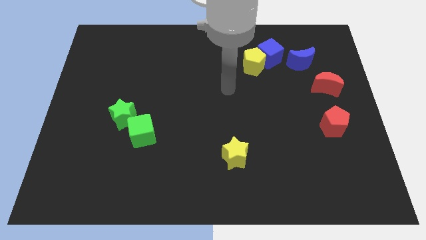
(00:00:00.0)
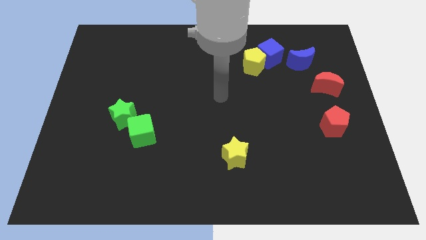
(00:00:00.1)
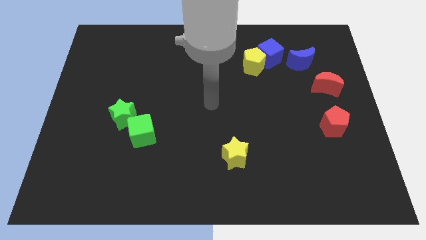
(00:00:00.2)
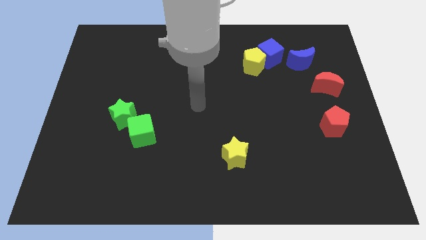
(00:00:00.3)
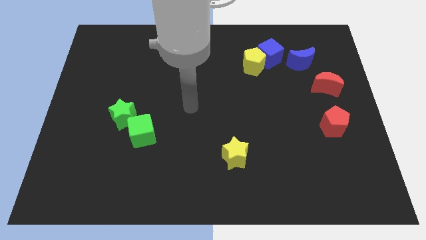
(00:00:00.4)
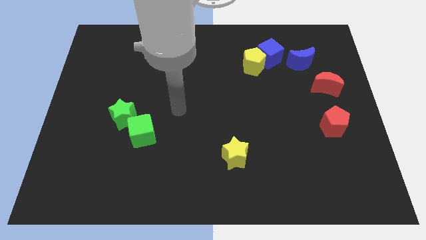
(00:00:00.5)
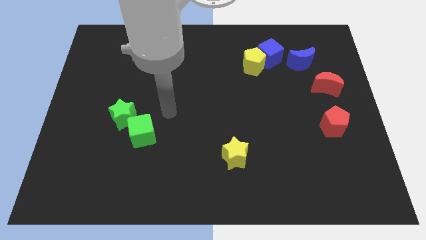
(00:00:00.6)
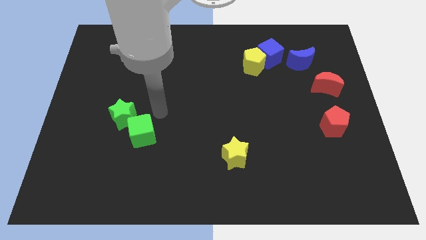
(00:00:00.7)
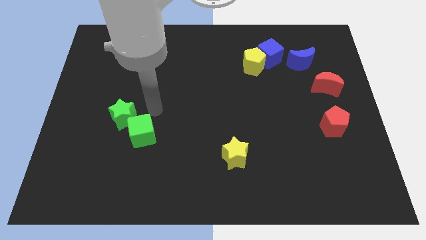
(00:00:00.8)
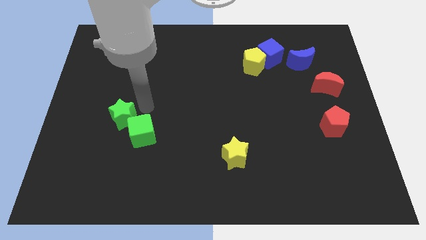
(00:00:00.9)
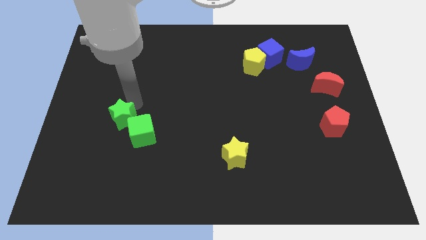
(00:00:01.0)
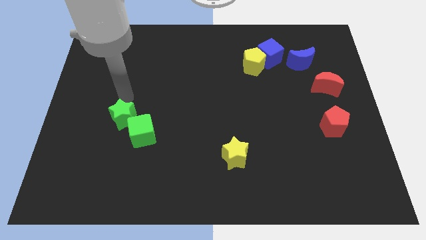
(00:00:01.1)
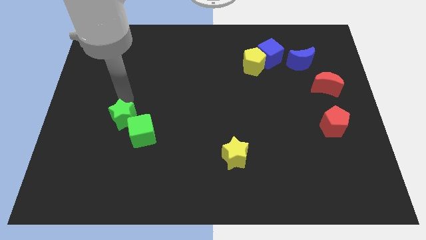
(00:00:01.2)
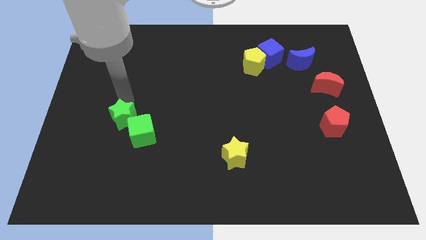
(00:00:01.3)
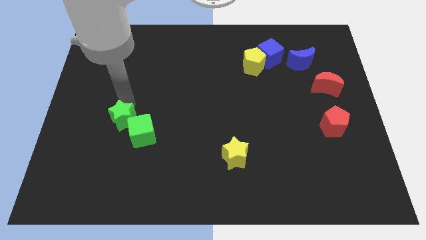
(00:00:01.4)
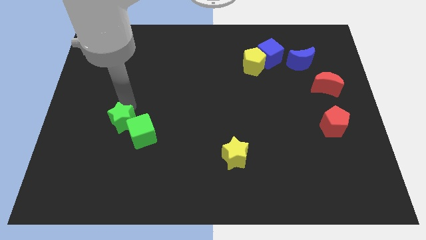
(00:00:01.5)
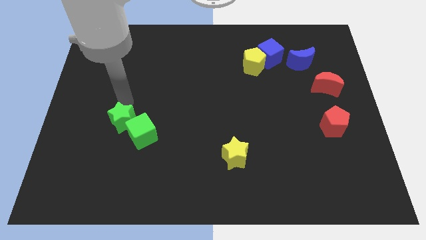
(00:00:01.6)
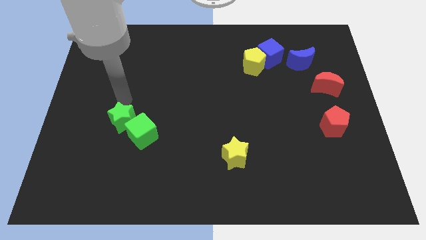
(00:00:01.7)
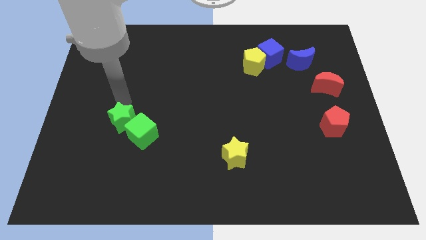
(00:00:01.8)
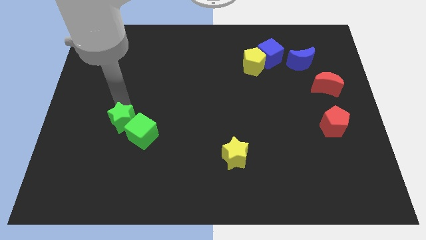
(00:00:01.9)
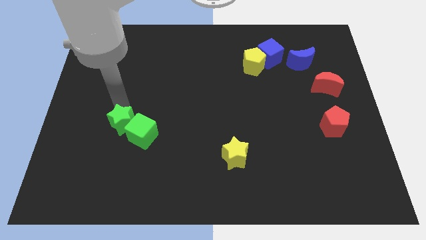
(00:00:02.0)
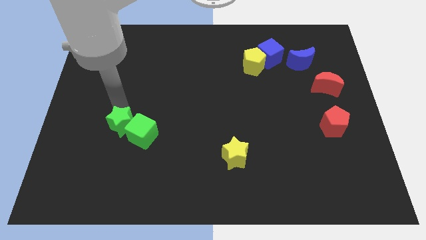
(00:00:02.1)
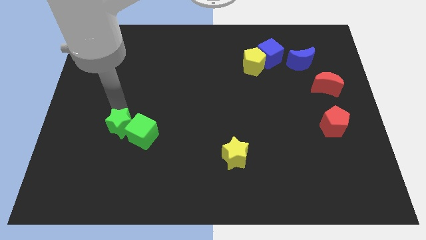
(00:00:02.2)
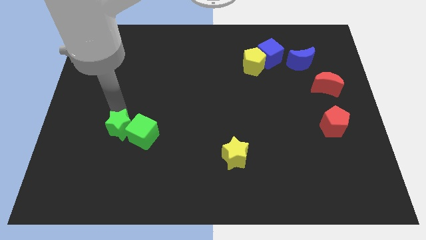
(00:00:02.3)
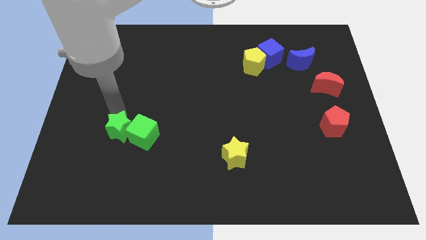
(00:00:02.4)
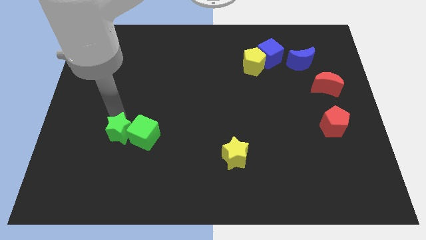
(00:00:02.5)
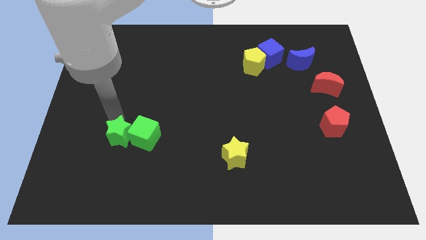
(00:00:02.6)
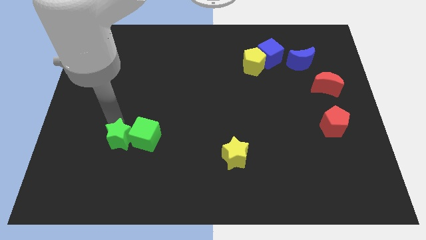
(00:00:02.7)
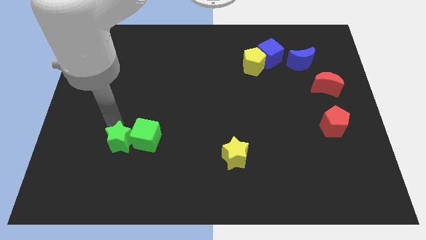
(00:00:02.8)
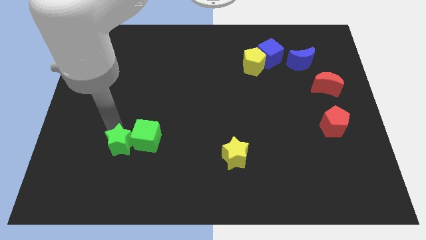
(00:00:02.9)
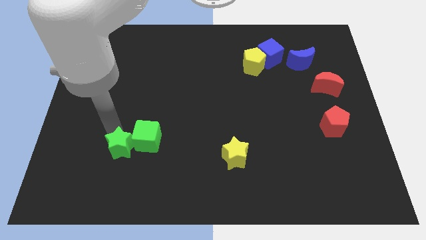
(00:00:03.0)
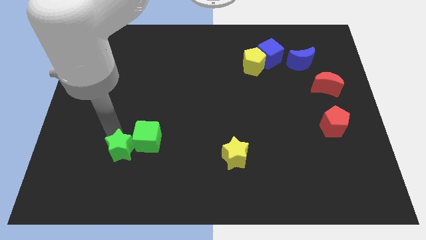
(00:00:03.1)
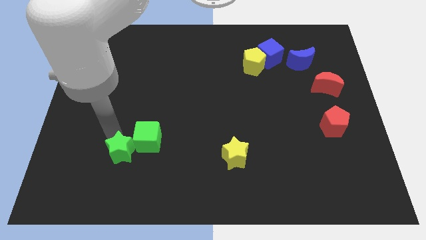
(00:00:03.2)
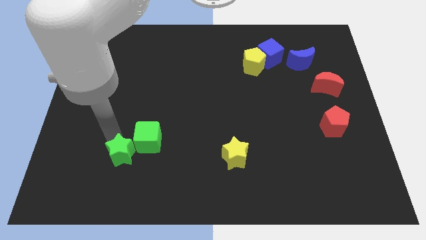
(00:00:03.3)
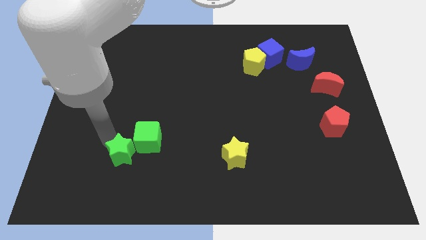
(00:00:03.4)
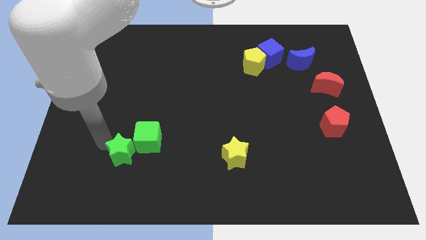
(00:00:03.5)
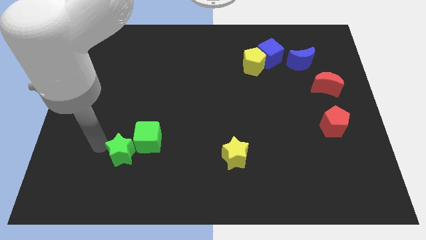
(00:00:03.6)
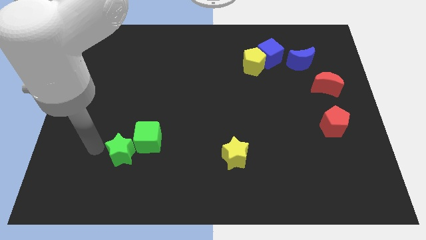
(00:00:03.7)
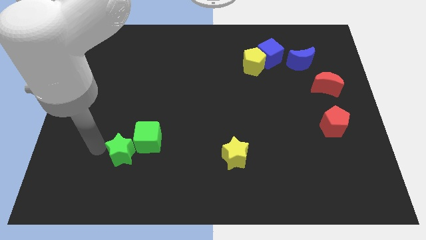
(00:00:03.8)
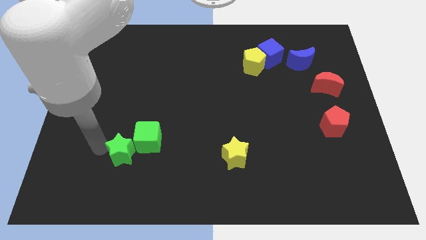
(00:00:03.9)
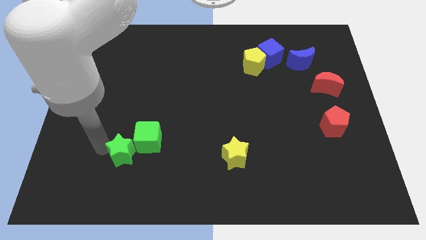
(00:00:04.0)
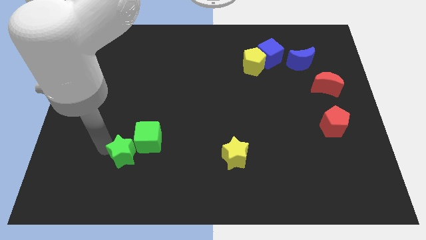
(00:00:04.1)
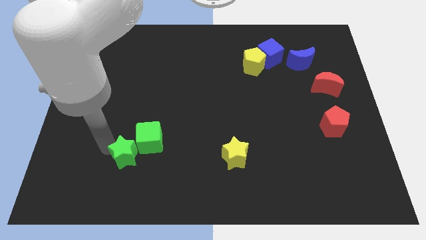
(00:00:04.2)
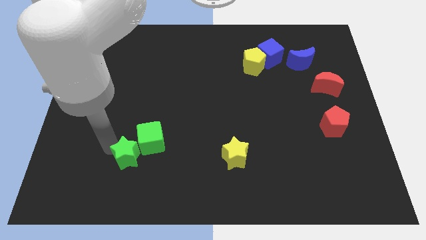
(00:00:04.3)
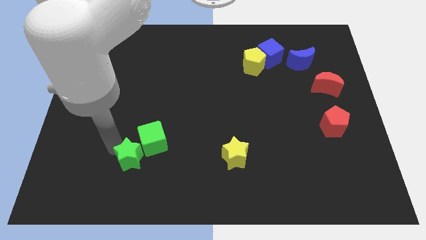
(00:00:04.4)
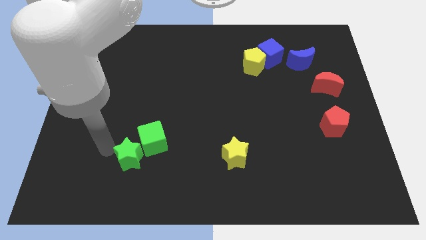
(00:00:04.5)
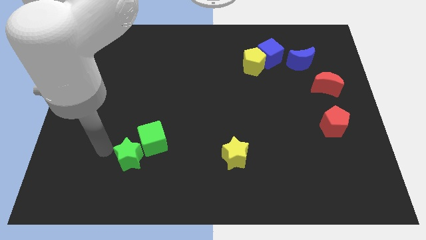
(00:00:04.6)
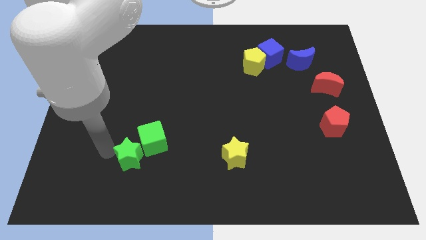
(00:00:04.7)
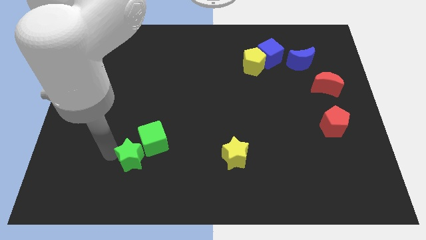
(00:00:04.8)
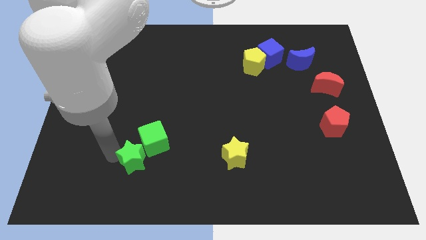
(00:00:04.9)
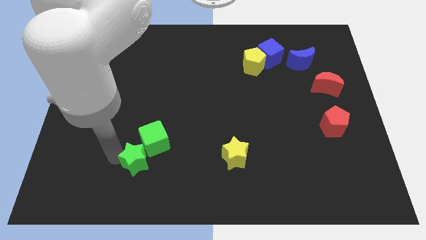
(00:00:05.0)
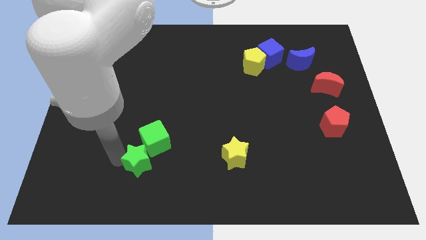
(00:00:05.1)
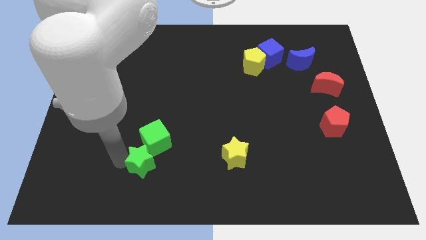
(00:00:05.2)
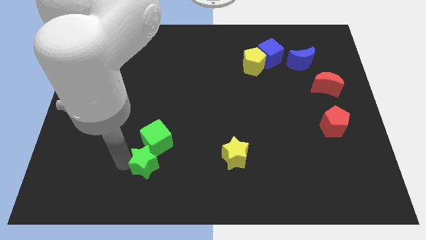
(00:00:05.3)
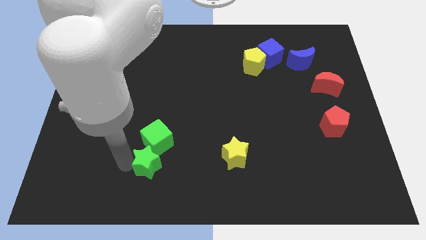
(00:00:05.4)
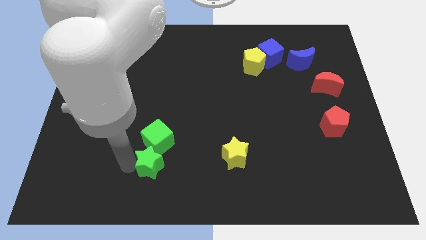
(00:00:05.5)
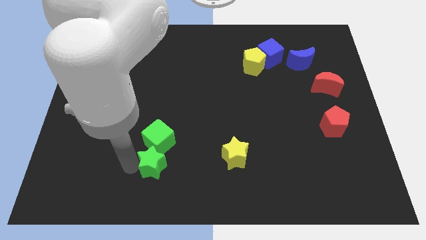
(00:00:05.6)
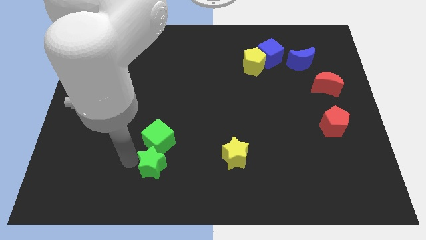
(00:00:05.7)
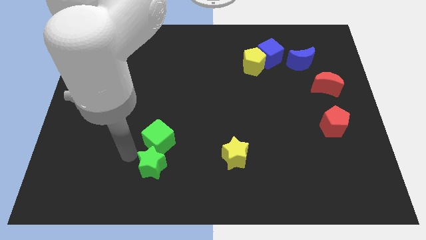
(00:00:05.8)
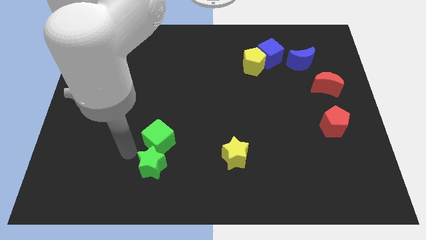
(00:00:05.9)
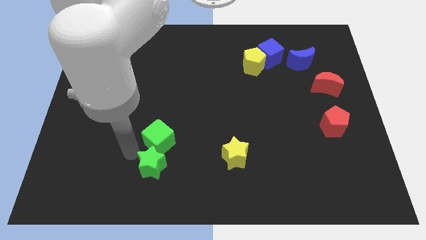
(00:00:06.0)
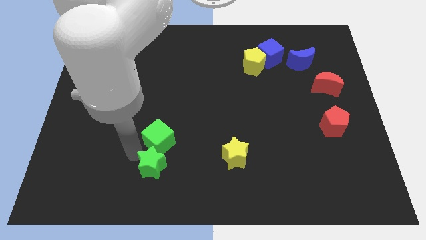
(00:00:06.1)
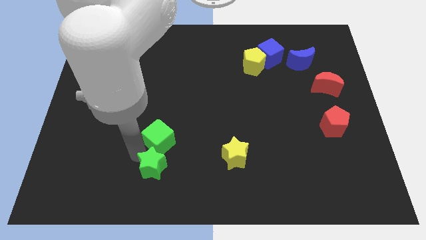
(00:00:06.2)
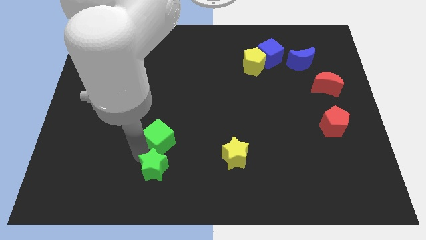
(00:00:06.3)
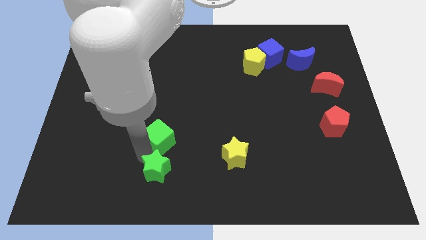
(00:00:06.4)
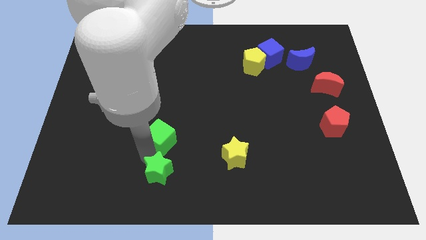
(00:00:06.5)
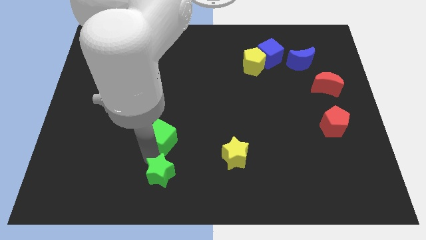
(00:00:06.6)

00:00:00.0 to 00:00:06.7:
put the green star to the bottom side
